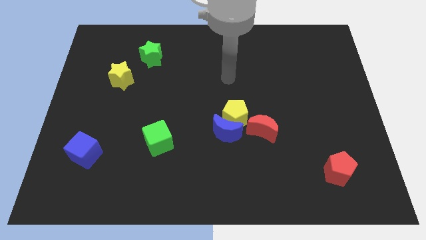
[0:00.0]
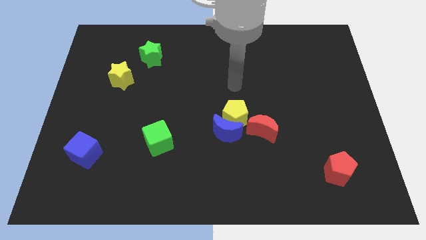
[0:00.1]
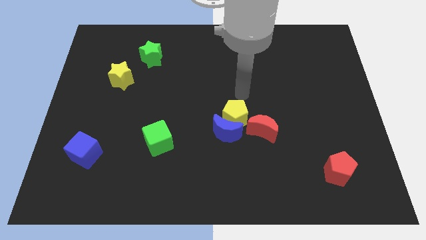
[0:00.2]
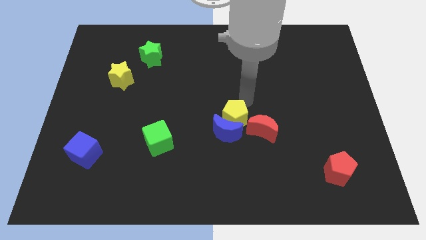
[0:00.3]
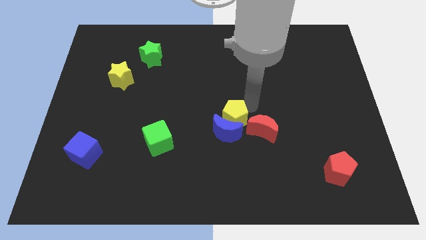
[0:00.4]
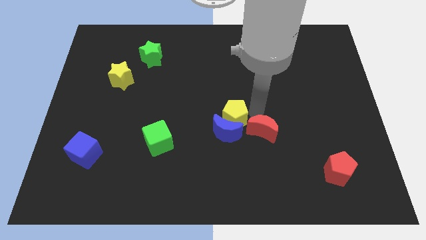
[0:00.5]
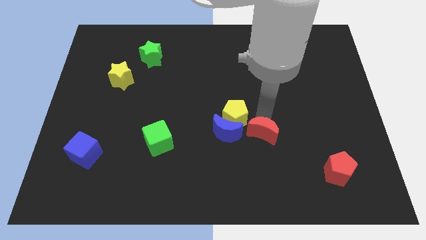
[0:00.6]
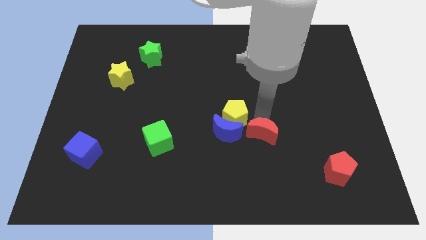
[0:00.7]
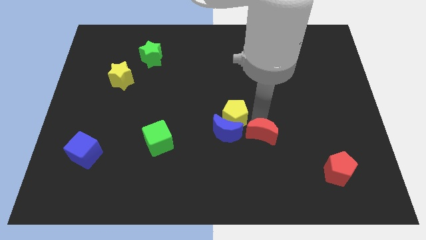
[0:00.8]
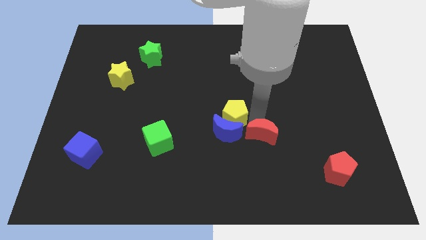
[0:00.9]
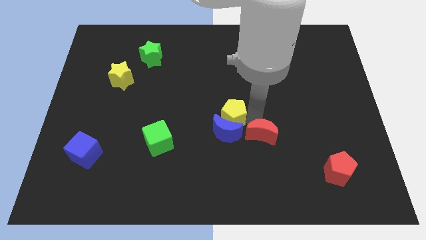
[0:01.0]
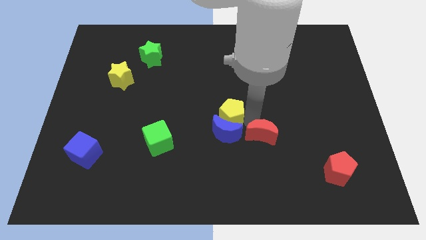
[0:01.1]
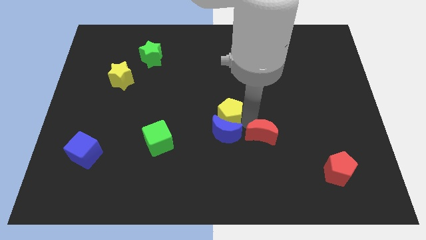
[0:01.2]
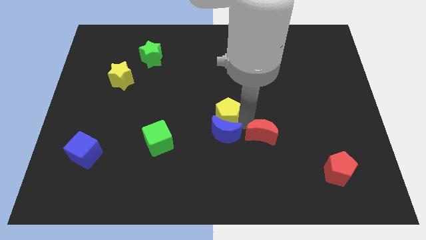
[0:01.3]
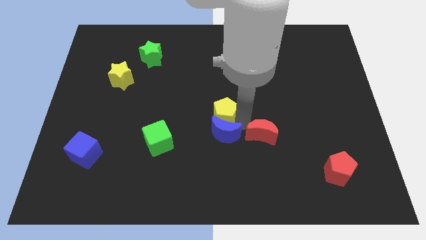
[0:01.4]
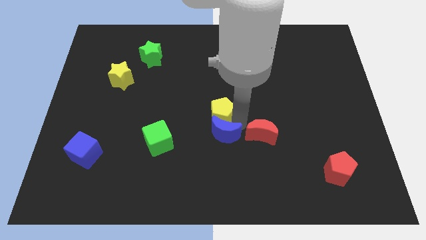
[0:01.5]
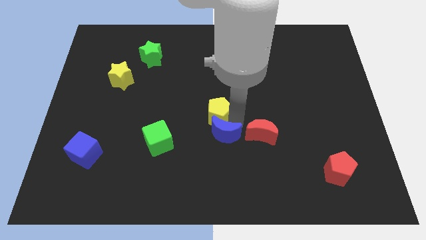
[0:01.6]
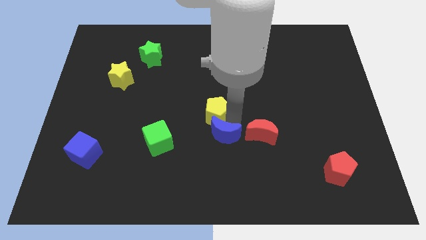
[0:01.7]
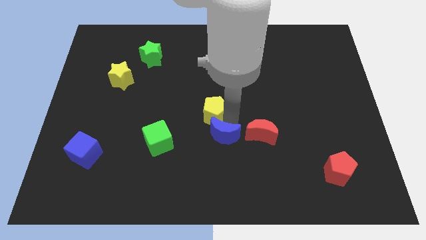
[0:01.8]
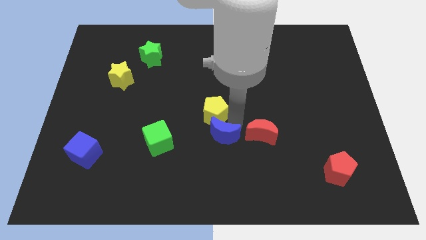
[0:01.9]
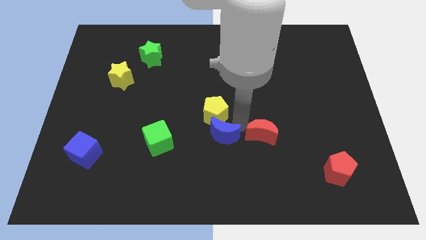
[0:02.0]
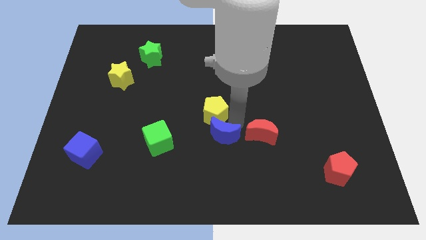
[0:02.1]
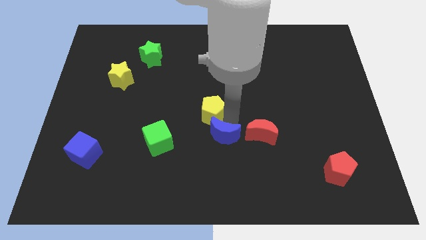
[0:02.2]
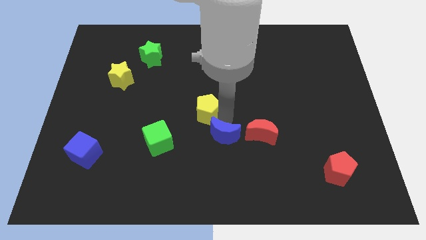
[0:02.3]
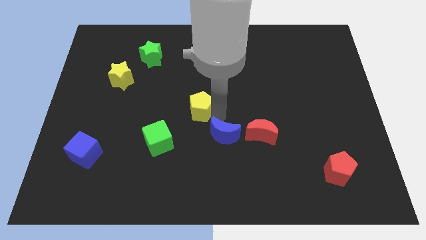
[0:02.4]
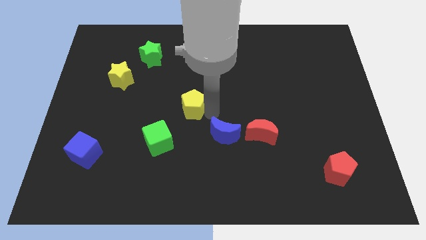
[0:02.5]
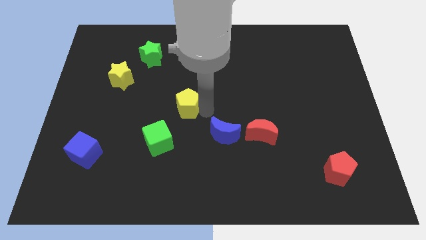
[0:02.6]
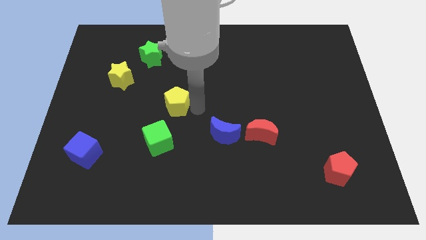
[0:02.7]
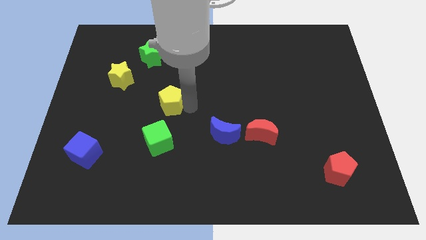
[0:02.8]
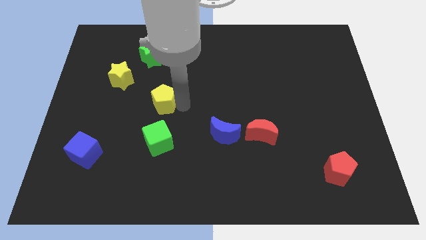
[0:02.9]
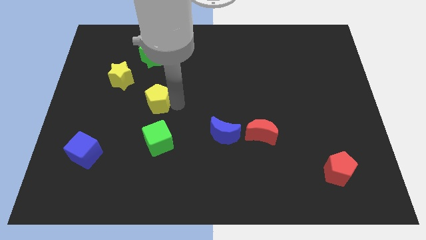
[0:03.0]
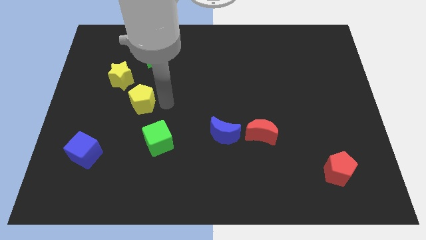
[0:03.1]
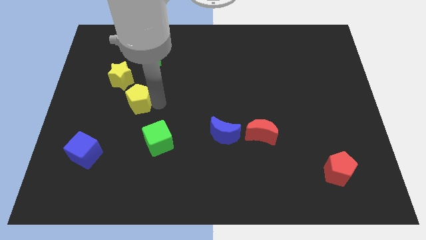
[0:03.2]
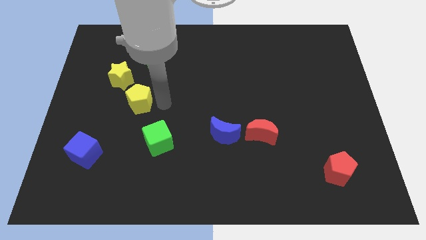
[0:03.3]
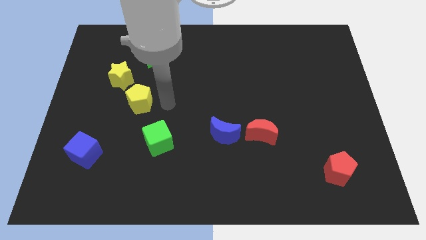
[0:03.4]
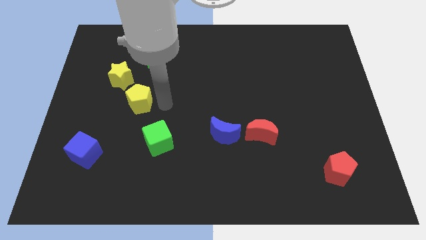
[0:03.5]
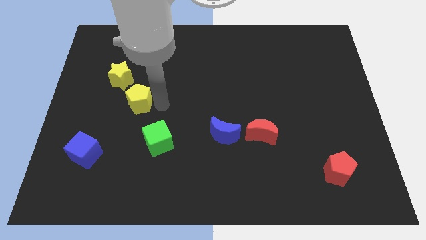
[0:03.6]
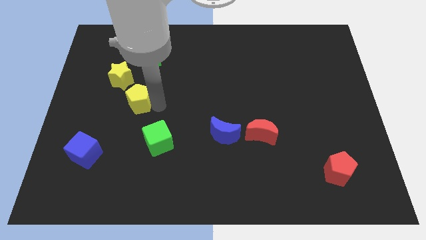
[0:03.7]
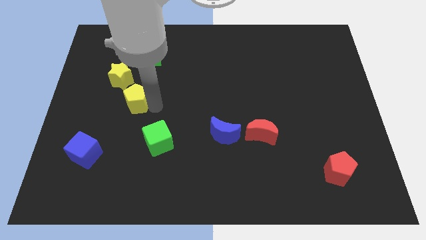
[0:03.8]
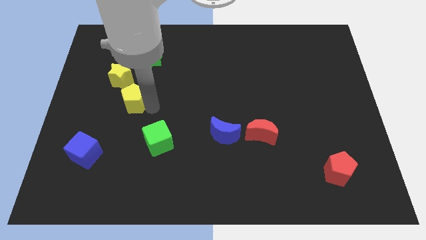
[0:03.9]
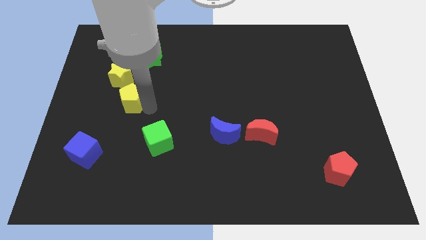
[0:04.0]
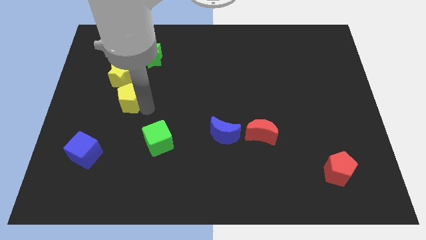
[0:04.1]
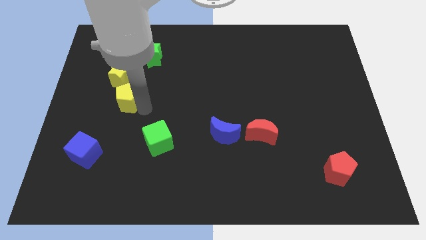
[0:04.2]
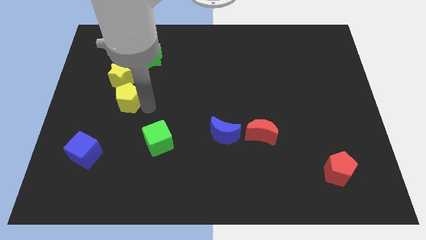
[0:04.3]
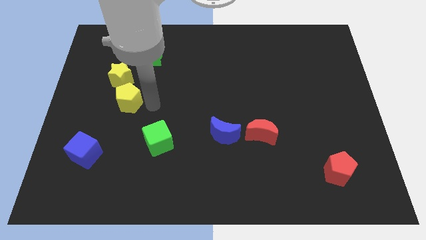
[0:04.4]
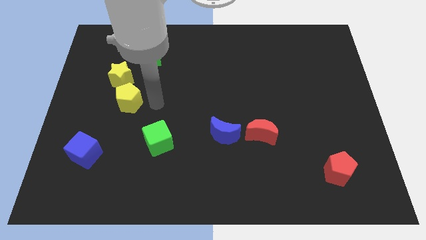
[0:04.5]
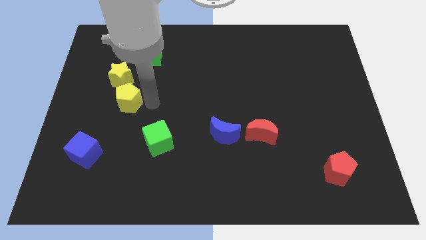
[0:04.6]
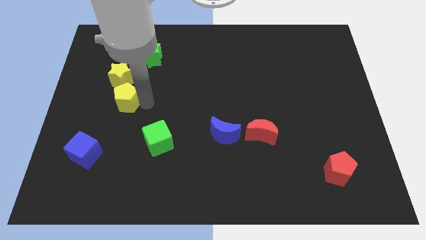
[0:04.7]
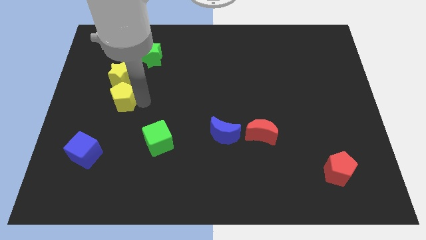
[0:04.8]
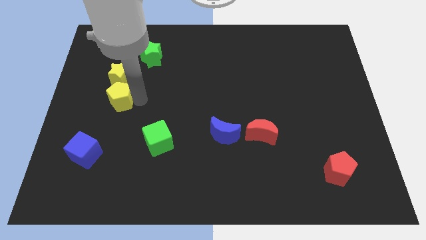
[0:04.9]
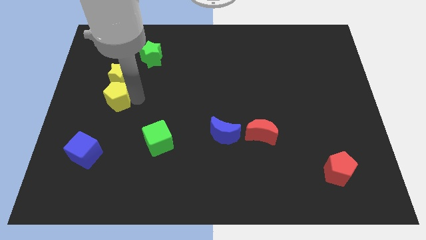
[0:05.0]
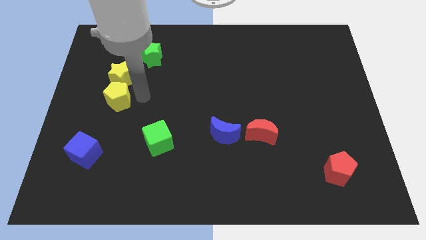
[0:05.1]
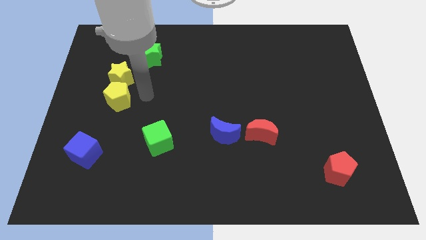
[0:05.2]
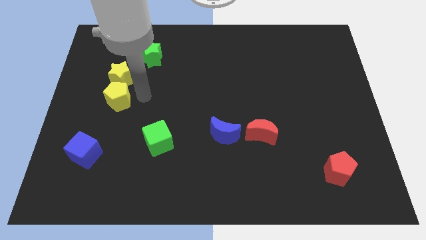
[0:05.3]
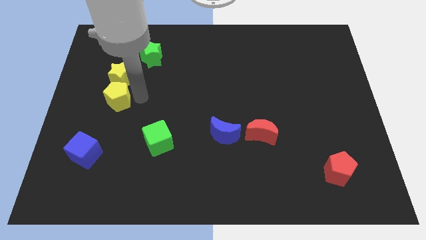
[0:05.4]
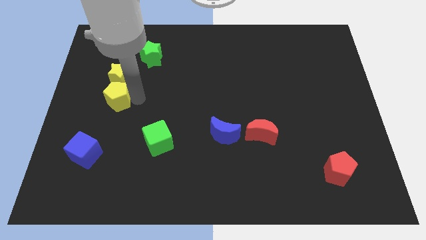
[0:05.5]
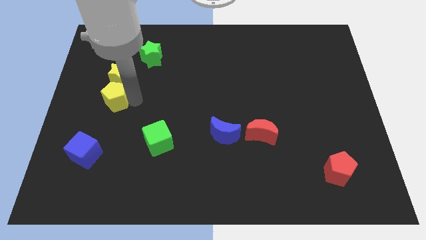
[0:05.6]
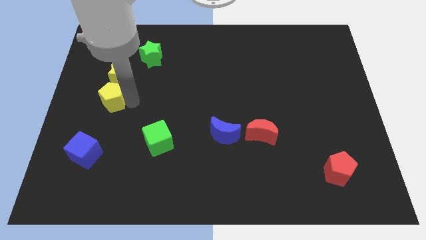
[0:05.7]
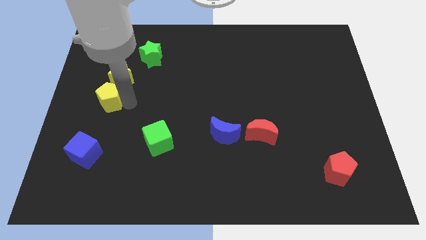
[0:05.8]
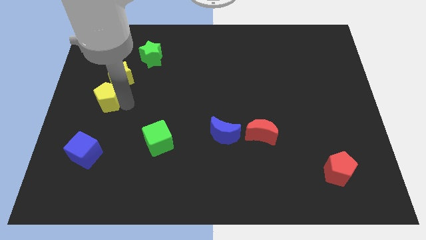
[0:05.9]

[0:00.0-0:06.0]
move the yellow pentagon to the left side of the board
